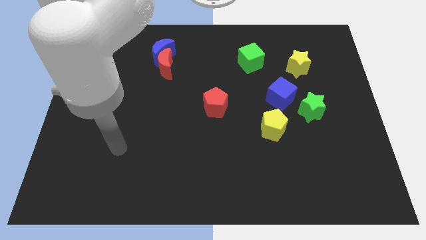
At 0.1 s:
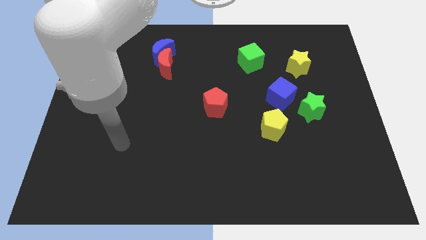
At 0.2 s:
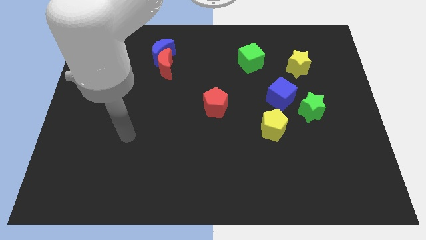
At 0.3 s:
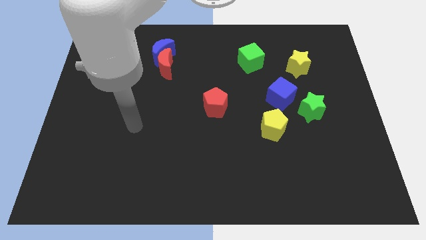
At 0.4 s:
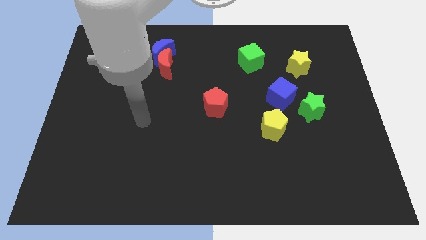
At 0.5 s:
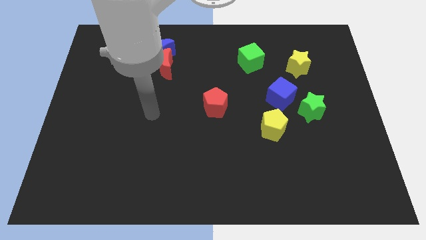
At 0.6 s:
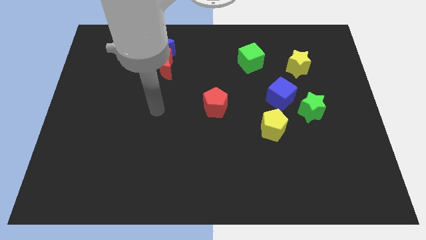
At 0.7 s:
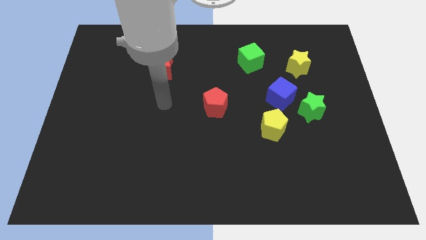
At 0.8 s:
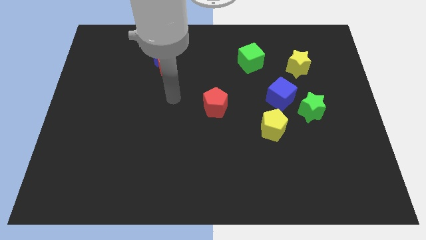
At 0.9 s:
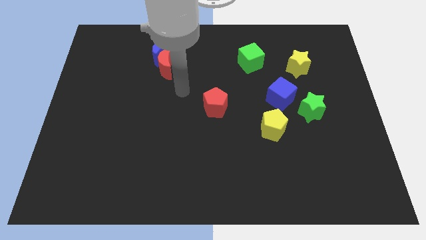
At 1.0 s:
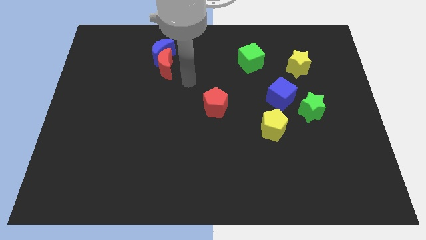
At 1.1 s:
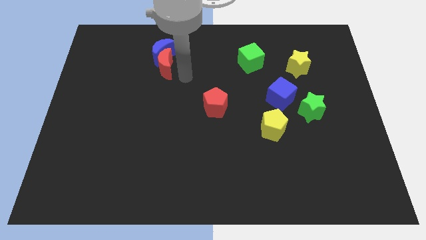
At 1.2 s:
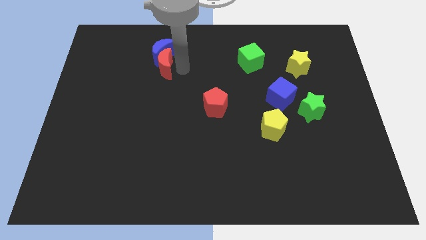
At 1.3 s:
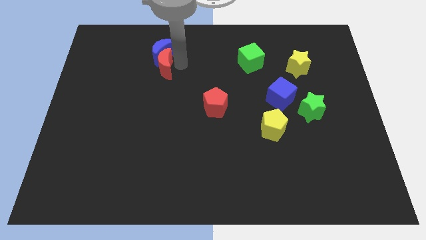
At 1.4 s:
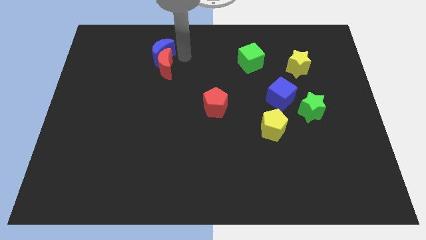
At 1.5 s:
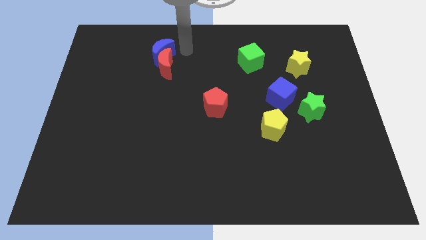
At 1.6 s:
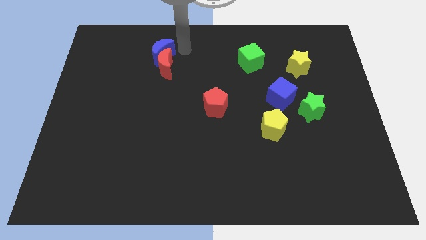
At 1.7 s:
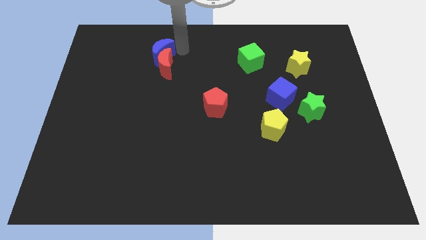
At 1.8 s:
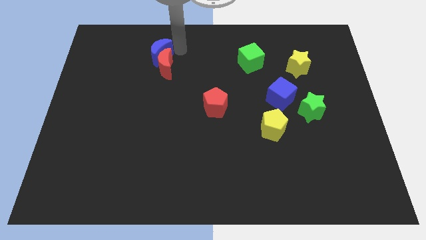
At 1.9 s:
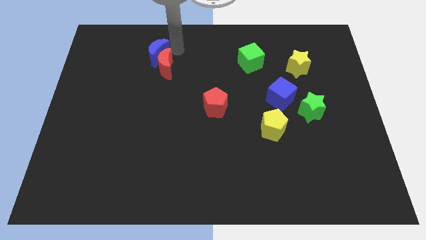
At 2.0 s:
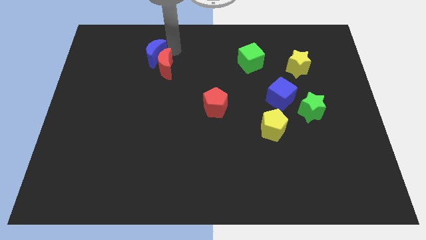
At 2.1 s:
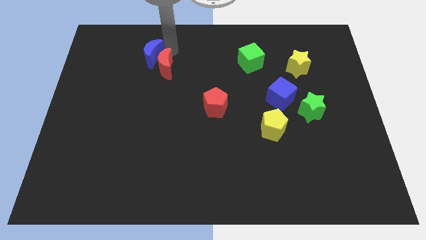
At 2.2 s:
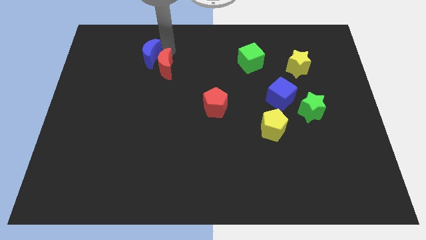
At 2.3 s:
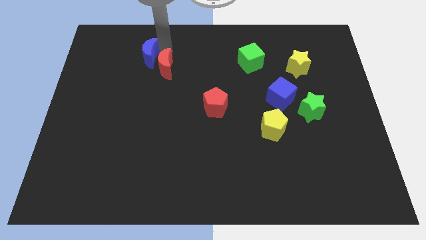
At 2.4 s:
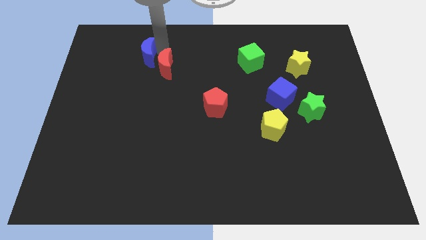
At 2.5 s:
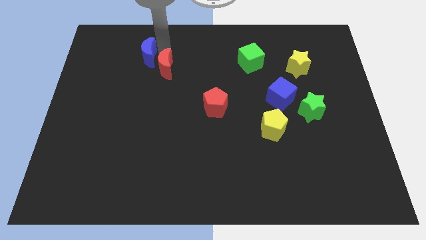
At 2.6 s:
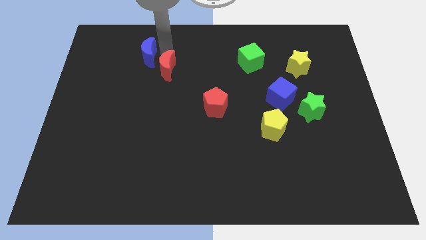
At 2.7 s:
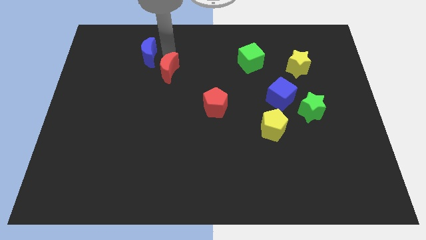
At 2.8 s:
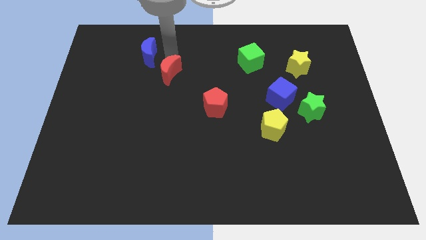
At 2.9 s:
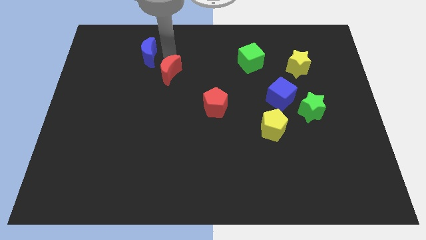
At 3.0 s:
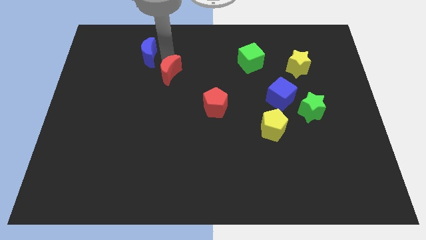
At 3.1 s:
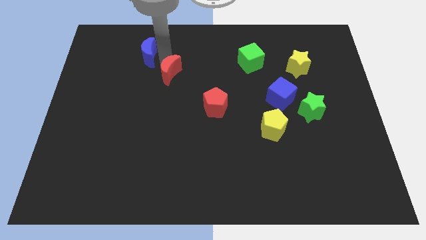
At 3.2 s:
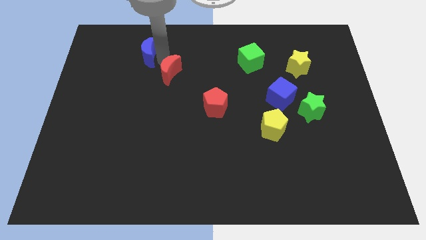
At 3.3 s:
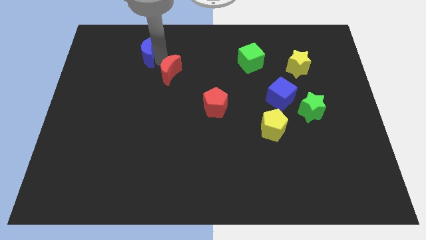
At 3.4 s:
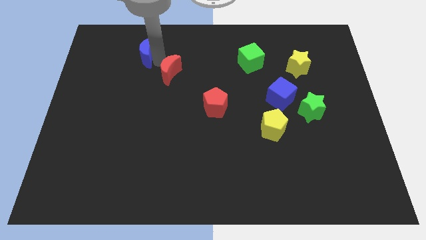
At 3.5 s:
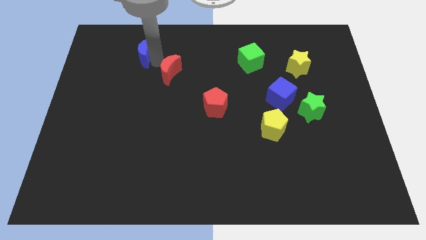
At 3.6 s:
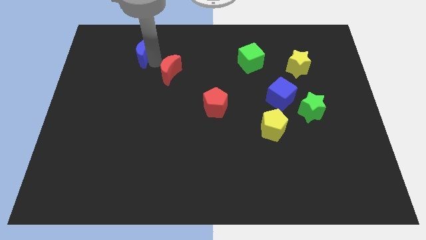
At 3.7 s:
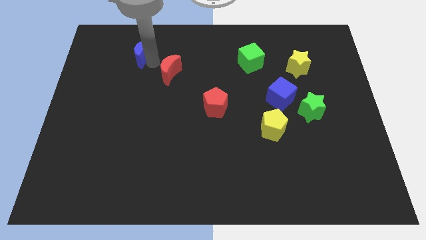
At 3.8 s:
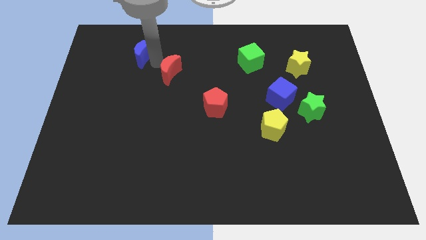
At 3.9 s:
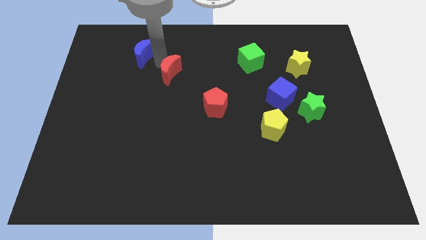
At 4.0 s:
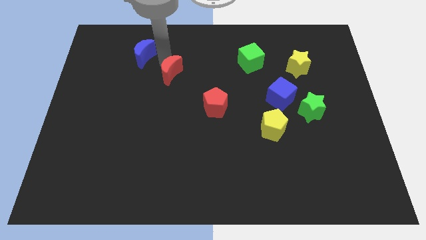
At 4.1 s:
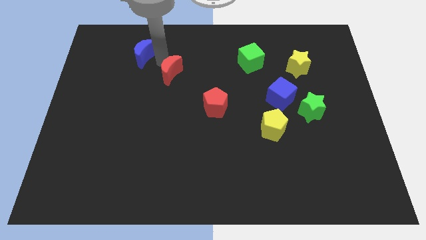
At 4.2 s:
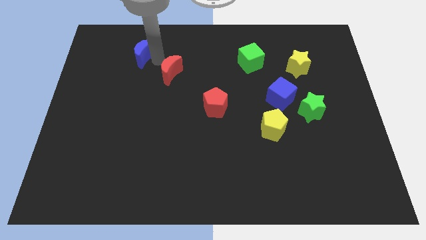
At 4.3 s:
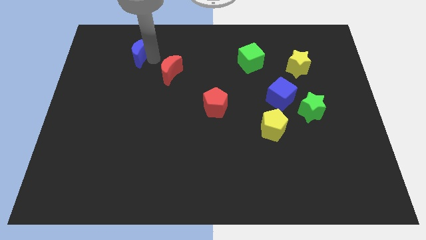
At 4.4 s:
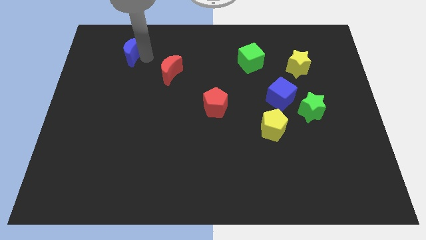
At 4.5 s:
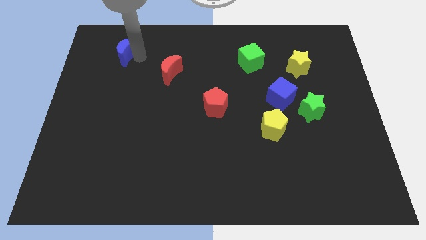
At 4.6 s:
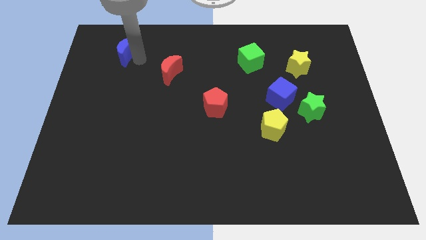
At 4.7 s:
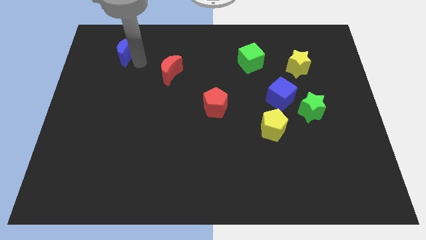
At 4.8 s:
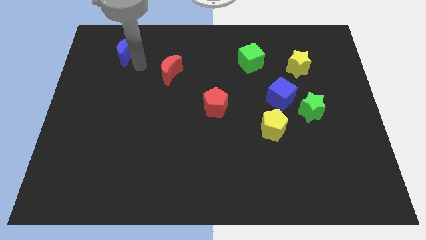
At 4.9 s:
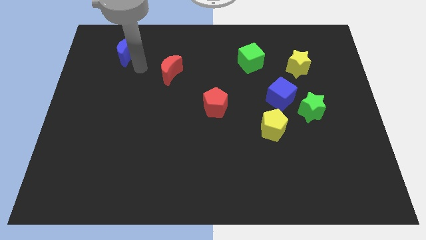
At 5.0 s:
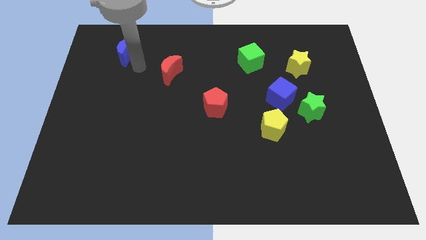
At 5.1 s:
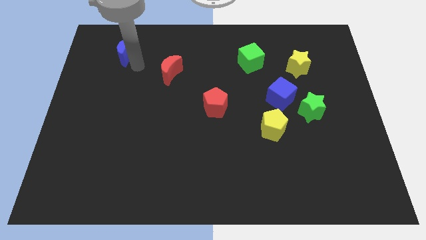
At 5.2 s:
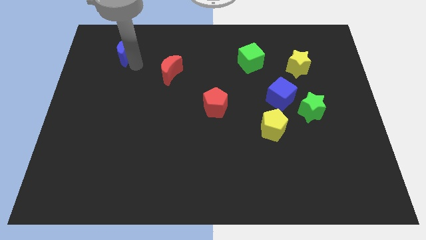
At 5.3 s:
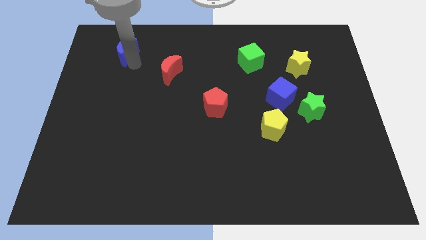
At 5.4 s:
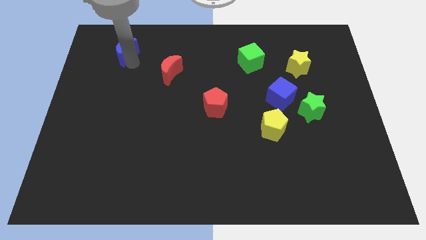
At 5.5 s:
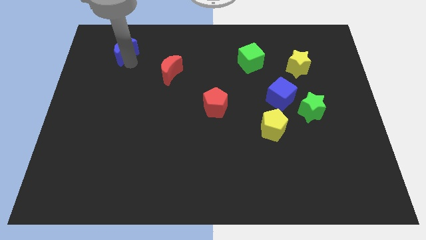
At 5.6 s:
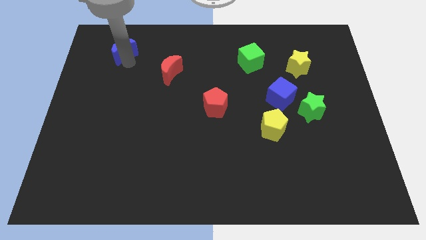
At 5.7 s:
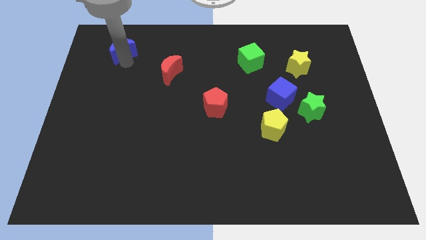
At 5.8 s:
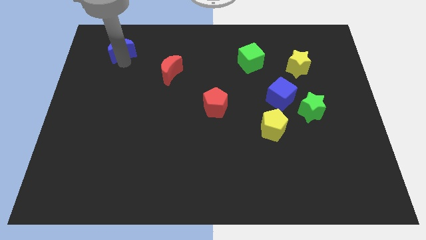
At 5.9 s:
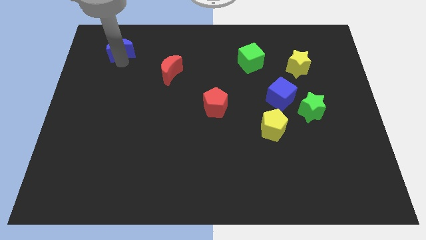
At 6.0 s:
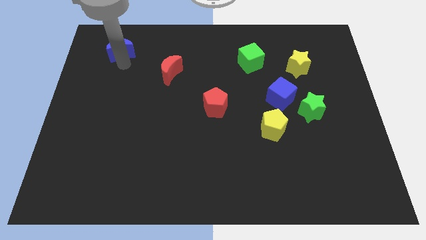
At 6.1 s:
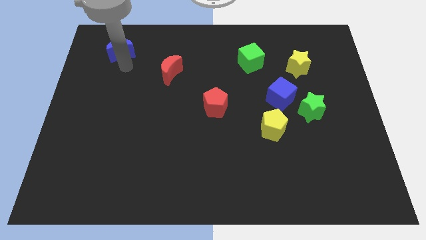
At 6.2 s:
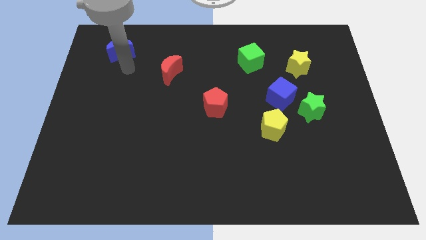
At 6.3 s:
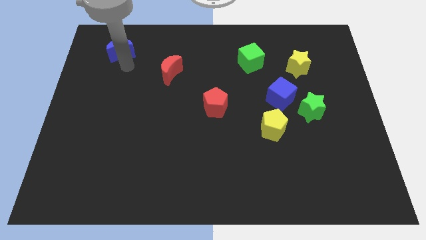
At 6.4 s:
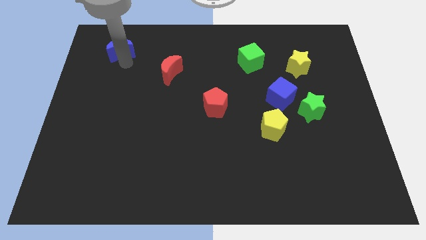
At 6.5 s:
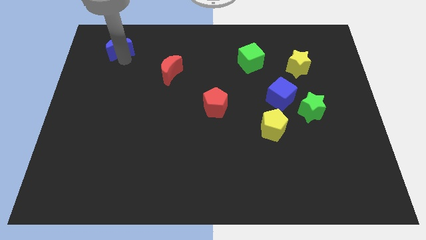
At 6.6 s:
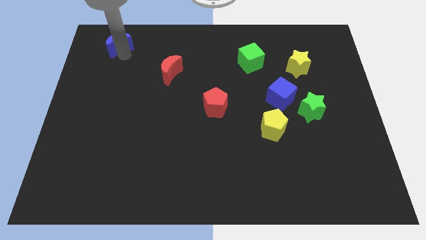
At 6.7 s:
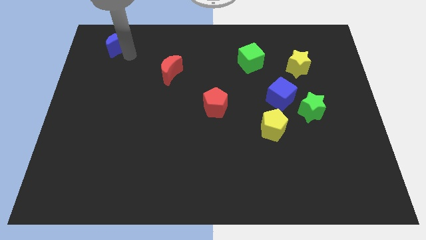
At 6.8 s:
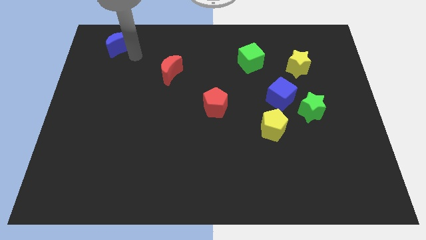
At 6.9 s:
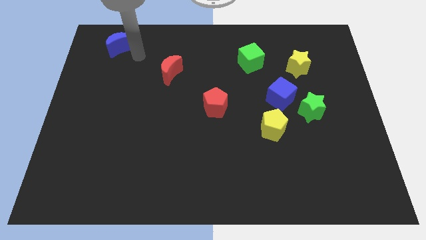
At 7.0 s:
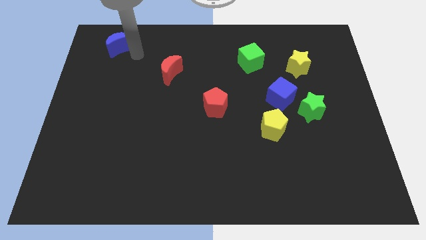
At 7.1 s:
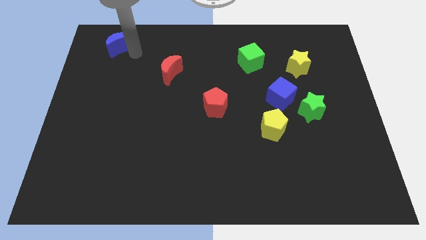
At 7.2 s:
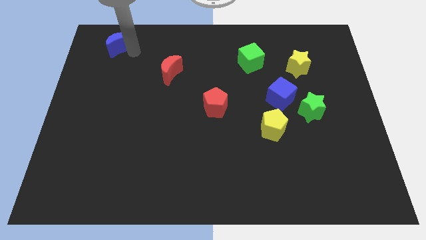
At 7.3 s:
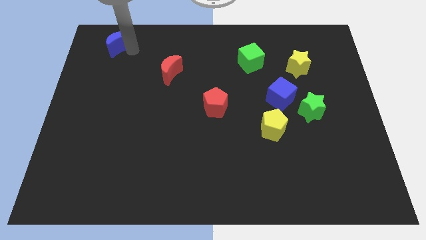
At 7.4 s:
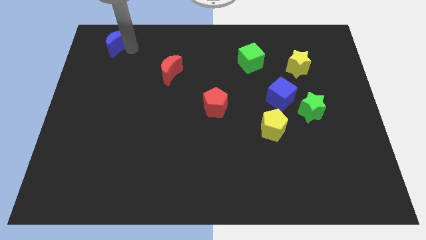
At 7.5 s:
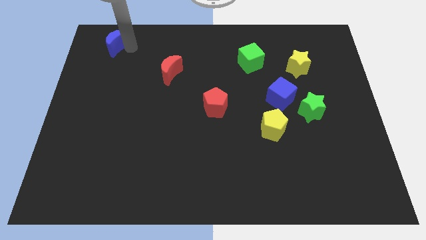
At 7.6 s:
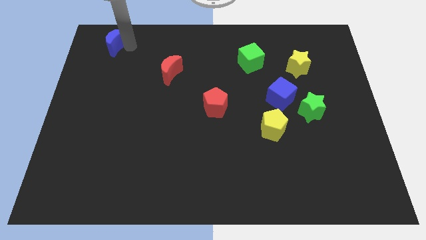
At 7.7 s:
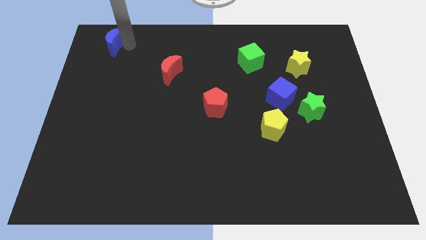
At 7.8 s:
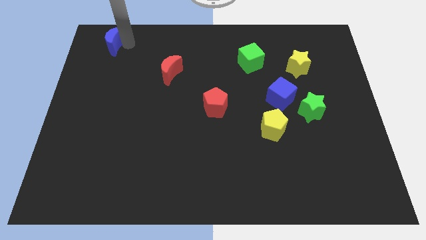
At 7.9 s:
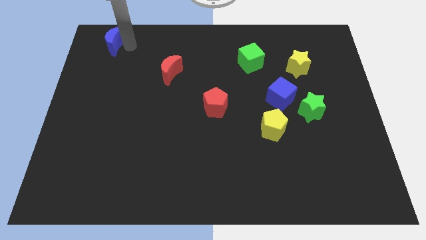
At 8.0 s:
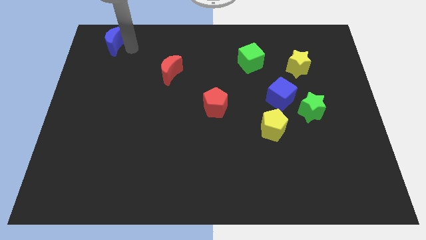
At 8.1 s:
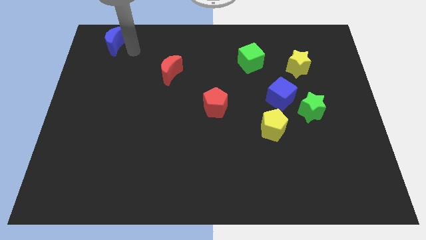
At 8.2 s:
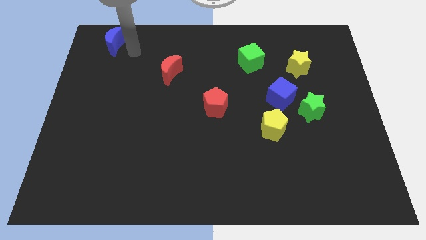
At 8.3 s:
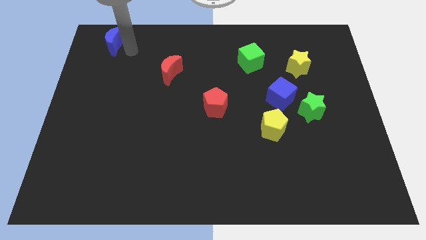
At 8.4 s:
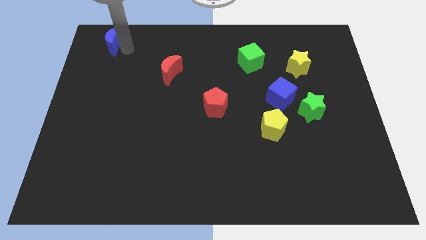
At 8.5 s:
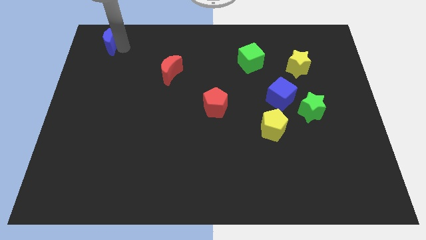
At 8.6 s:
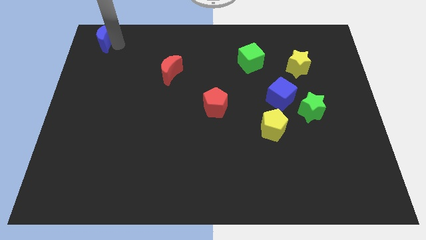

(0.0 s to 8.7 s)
put the blue moon to the upper left corner
